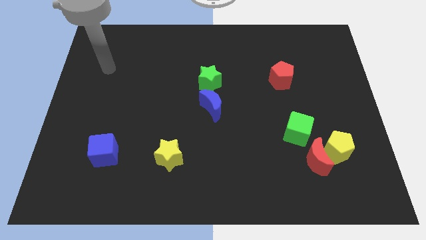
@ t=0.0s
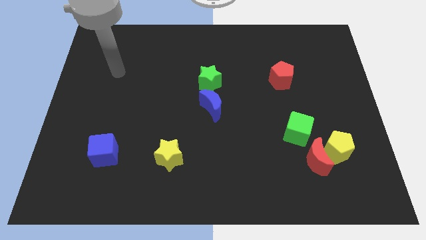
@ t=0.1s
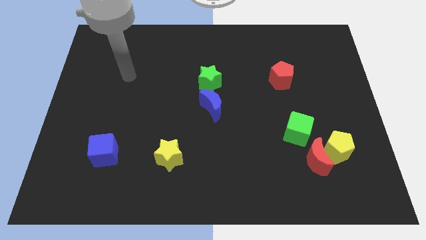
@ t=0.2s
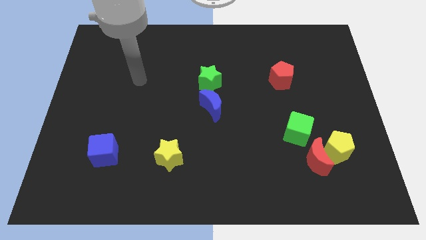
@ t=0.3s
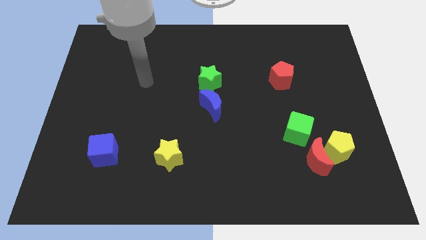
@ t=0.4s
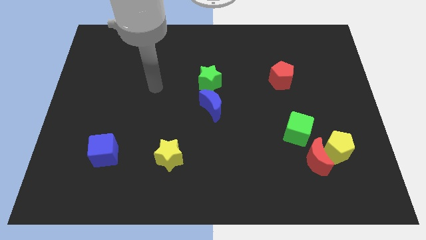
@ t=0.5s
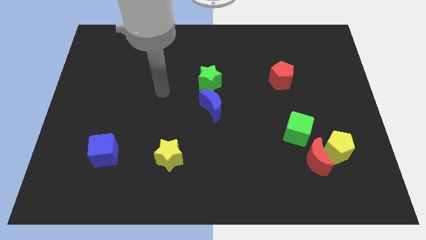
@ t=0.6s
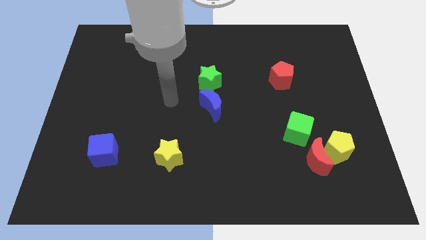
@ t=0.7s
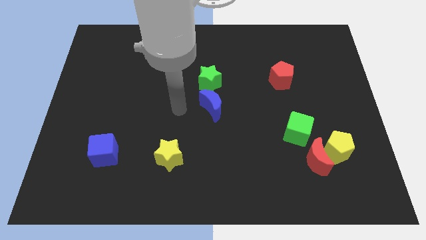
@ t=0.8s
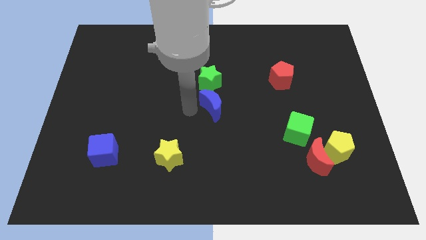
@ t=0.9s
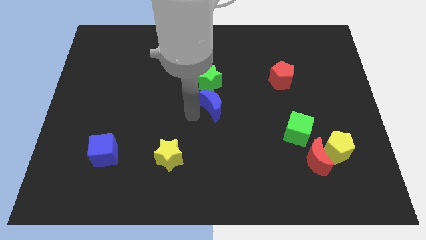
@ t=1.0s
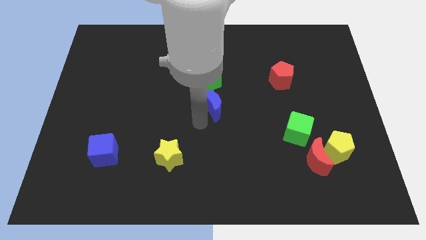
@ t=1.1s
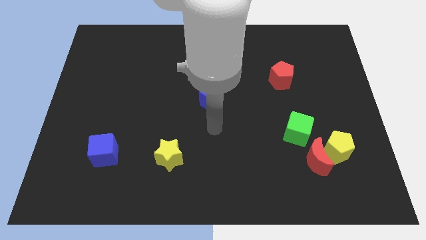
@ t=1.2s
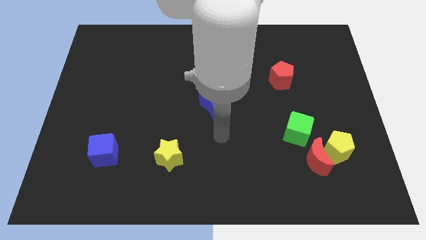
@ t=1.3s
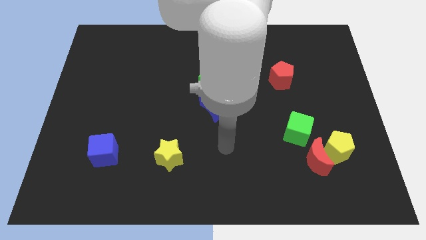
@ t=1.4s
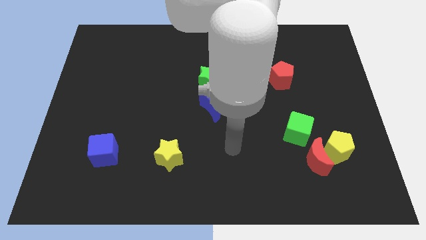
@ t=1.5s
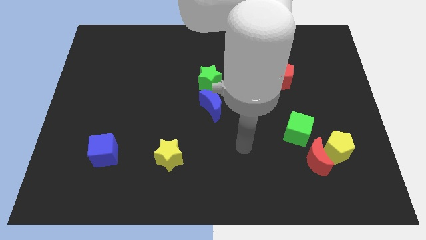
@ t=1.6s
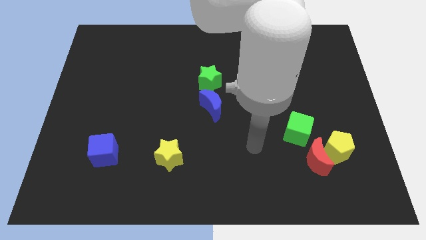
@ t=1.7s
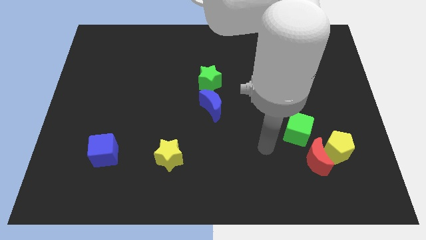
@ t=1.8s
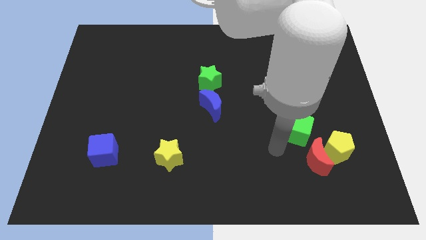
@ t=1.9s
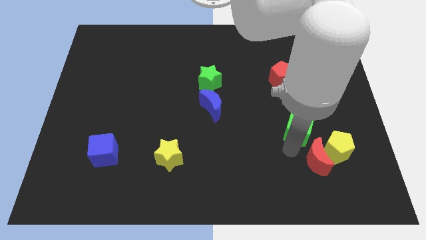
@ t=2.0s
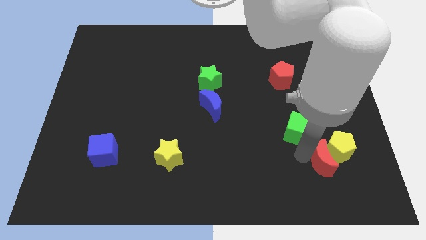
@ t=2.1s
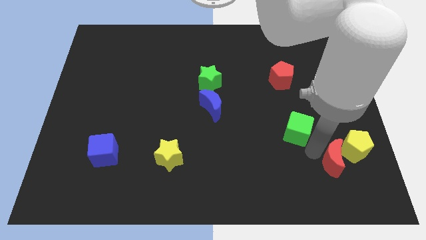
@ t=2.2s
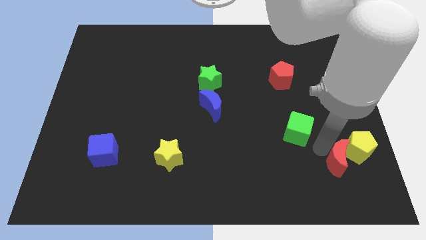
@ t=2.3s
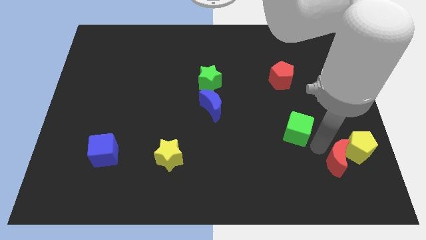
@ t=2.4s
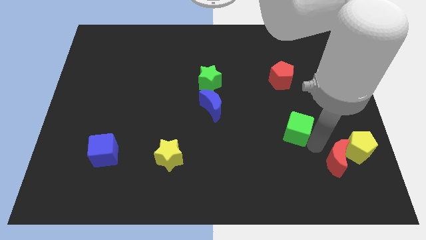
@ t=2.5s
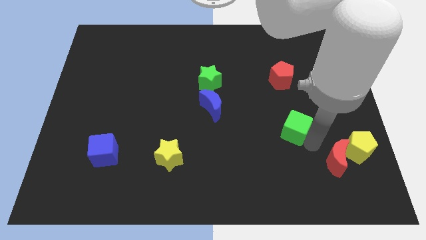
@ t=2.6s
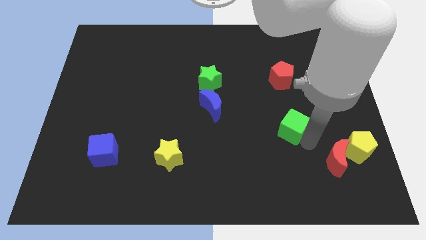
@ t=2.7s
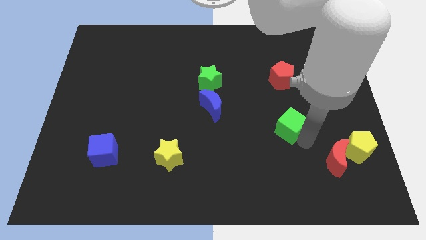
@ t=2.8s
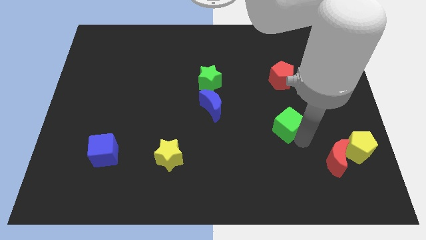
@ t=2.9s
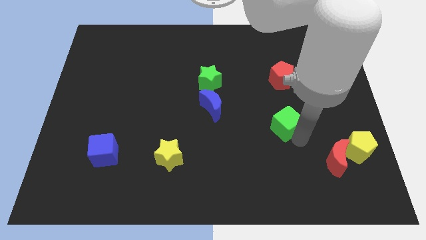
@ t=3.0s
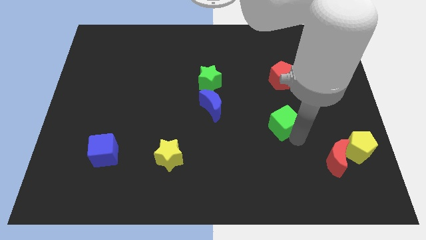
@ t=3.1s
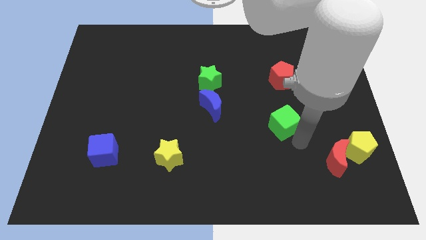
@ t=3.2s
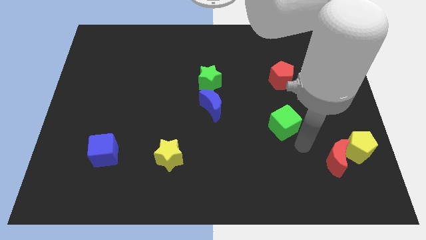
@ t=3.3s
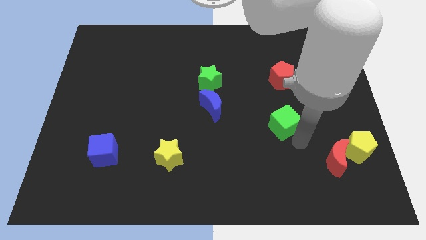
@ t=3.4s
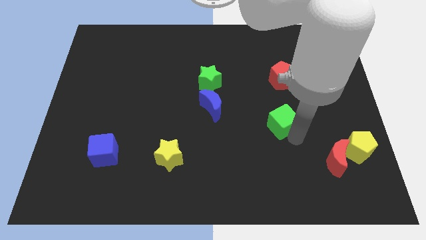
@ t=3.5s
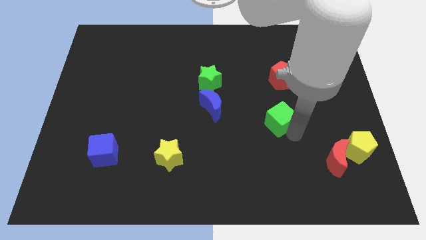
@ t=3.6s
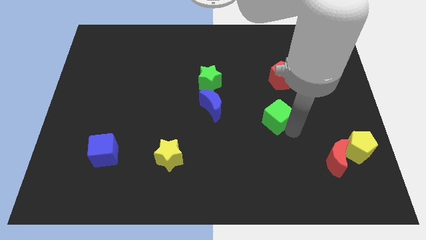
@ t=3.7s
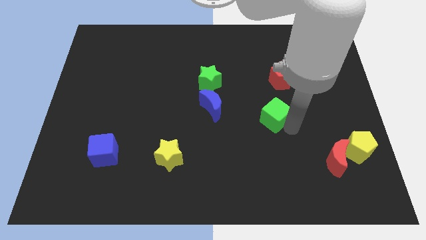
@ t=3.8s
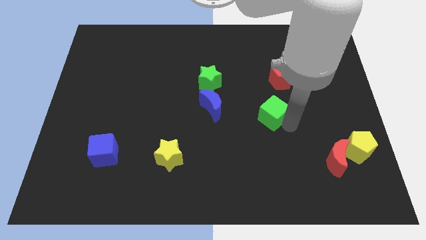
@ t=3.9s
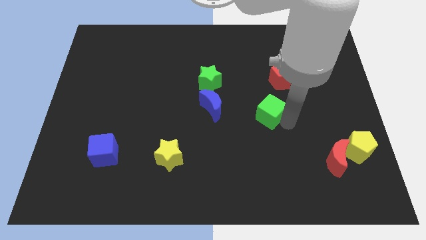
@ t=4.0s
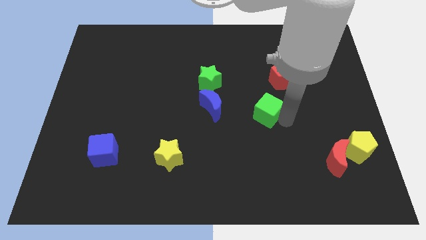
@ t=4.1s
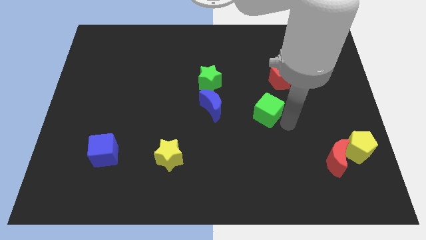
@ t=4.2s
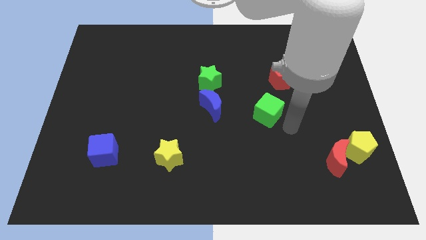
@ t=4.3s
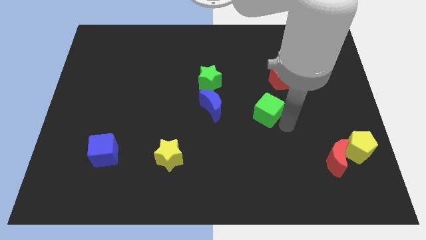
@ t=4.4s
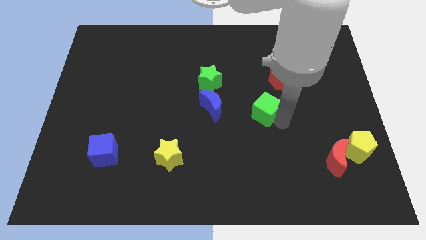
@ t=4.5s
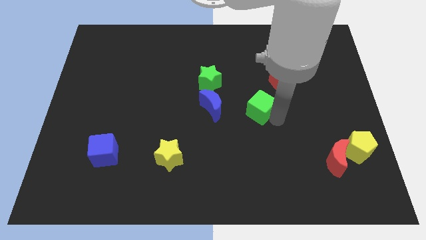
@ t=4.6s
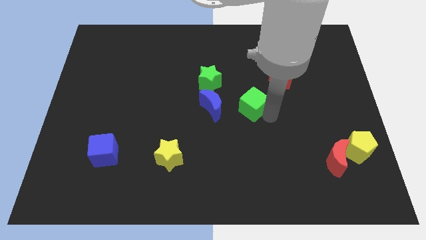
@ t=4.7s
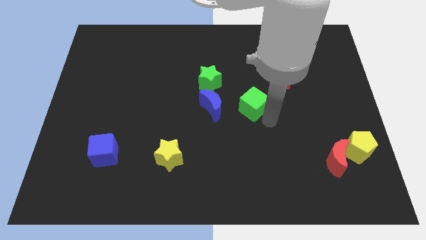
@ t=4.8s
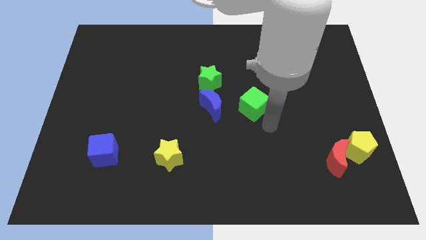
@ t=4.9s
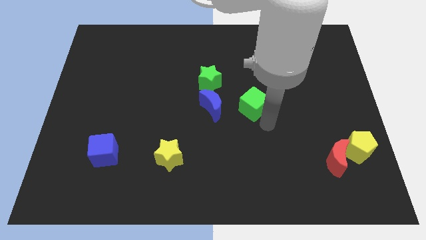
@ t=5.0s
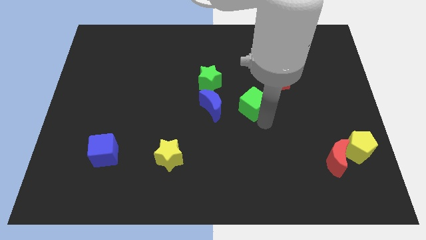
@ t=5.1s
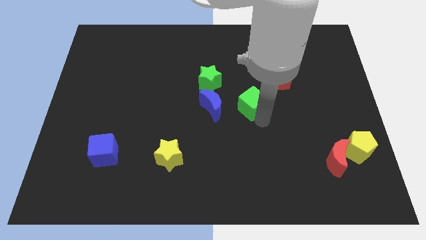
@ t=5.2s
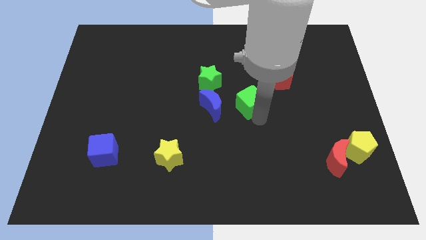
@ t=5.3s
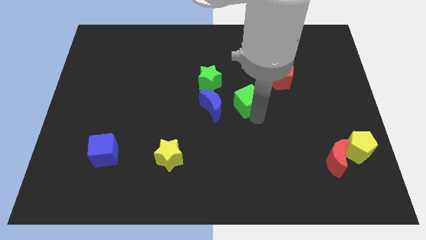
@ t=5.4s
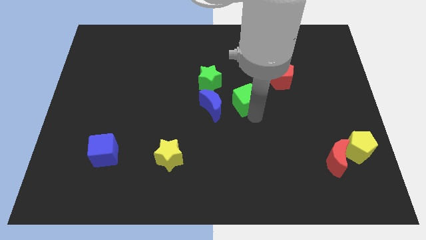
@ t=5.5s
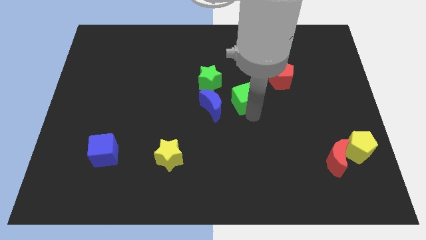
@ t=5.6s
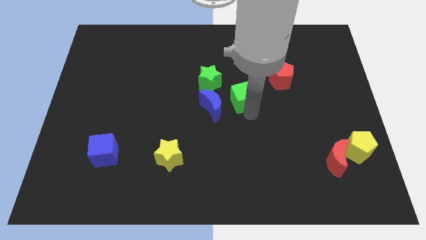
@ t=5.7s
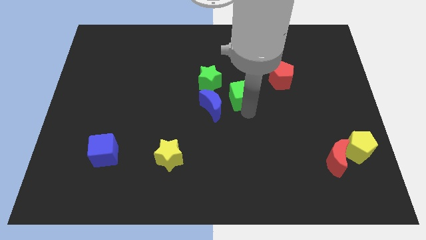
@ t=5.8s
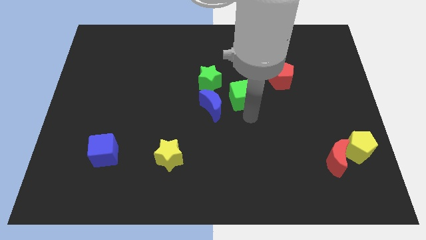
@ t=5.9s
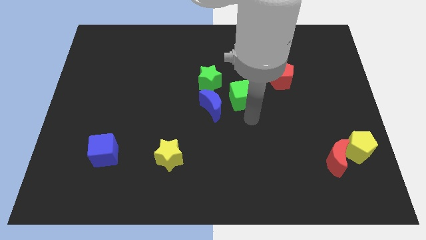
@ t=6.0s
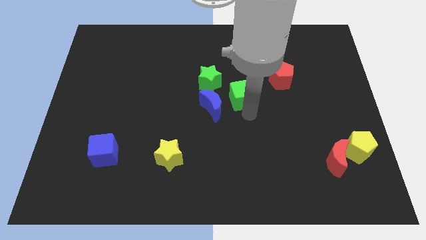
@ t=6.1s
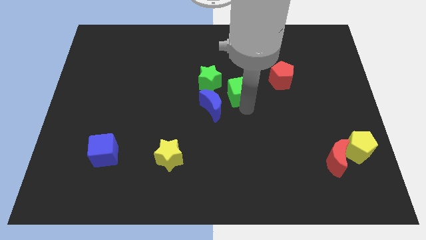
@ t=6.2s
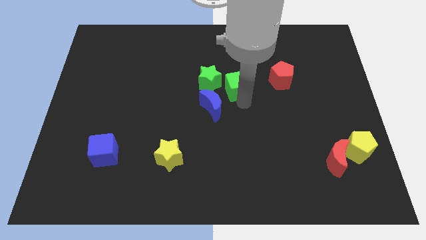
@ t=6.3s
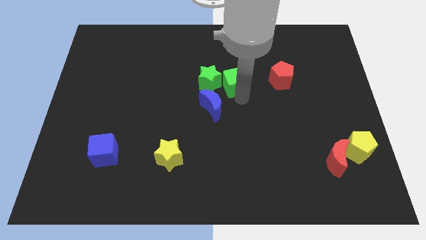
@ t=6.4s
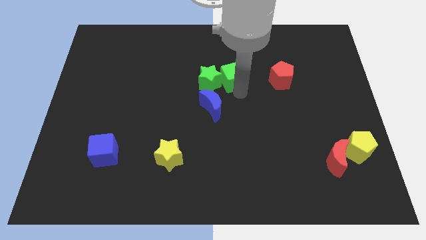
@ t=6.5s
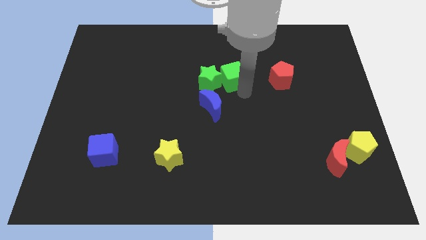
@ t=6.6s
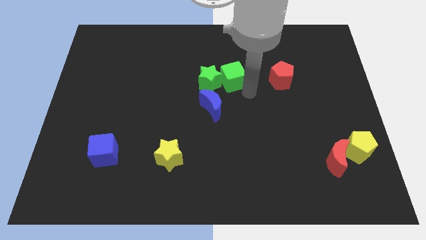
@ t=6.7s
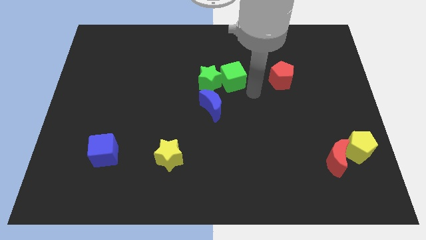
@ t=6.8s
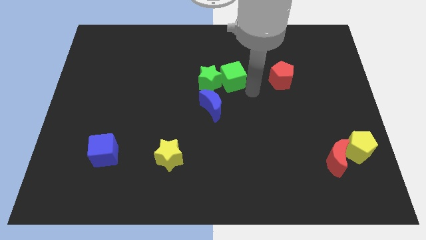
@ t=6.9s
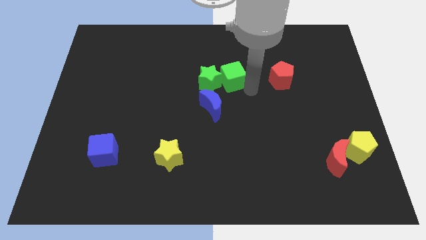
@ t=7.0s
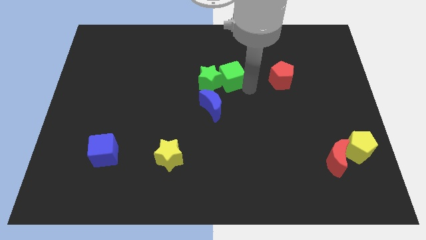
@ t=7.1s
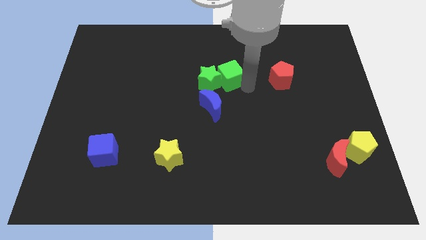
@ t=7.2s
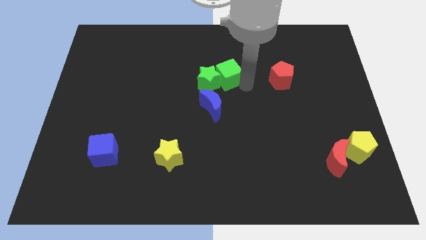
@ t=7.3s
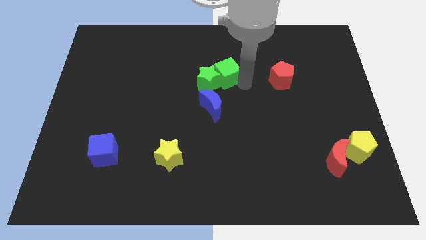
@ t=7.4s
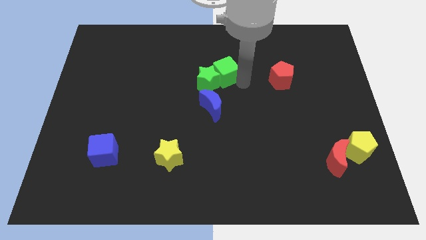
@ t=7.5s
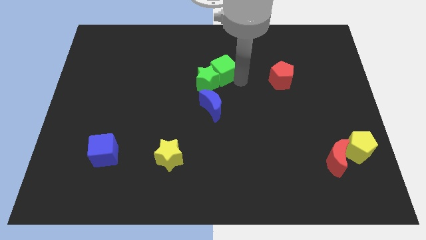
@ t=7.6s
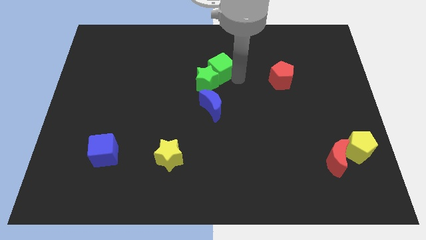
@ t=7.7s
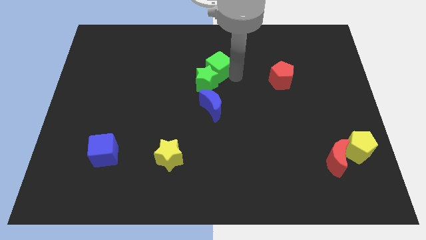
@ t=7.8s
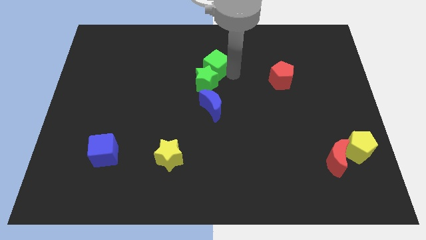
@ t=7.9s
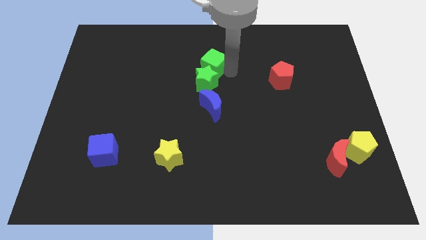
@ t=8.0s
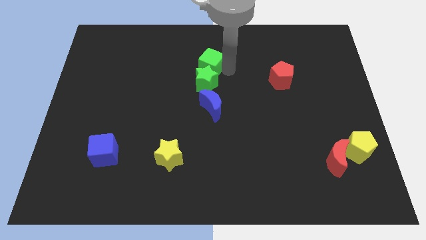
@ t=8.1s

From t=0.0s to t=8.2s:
slide the green cube to the top left side of the green star
